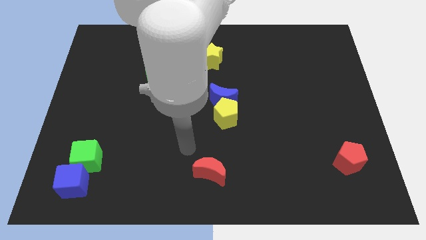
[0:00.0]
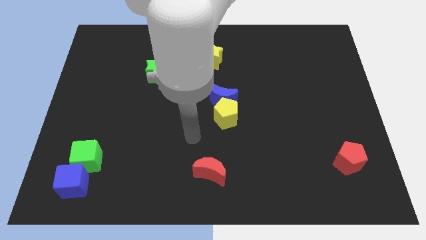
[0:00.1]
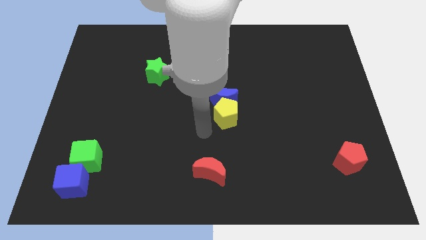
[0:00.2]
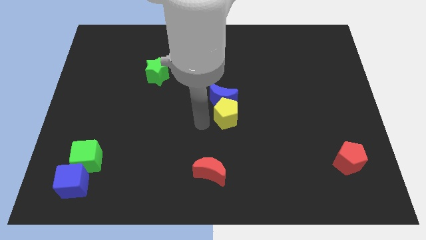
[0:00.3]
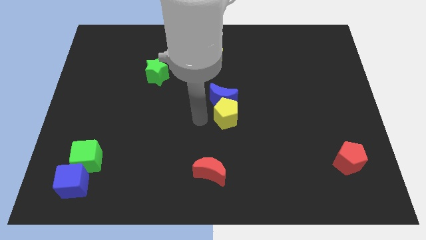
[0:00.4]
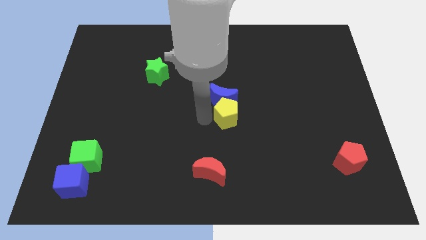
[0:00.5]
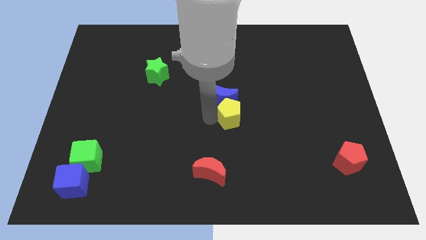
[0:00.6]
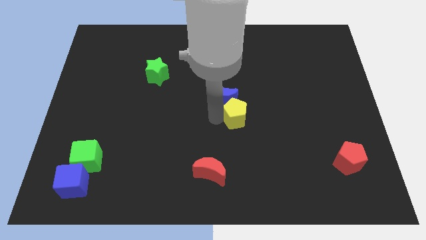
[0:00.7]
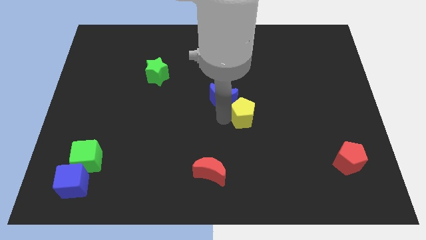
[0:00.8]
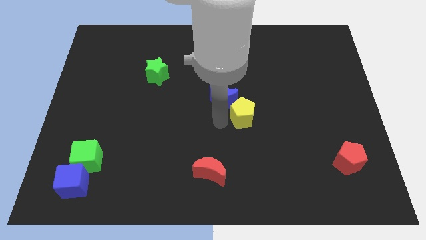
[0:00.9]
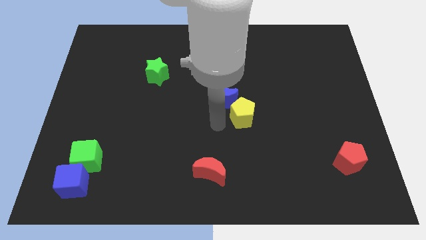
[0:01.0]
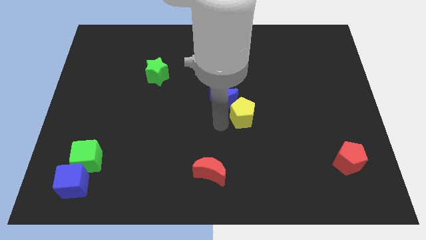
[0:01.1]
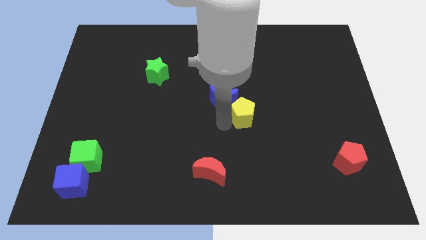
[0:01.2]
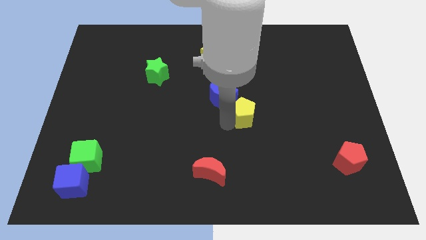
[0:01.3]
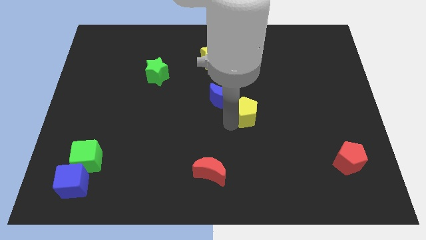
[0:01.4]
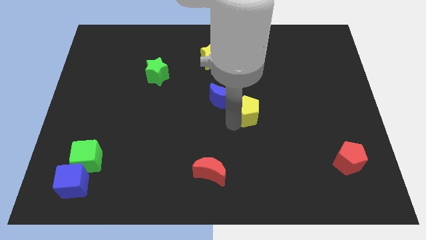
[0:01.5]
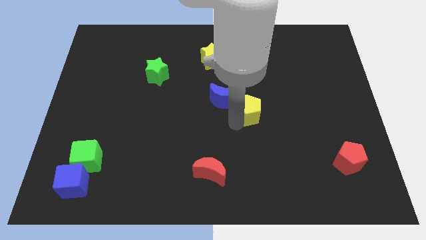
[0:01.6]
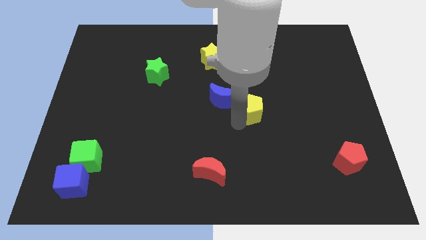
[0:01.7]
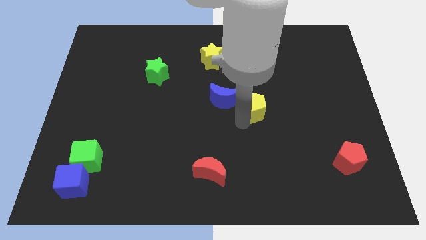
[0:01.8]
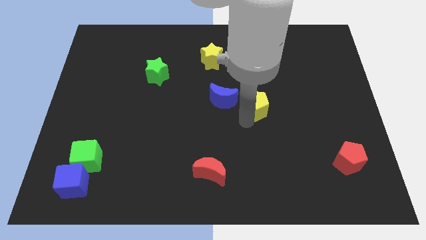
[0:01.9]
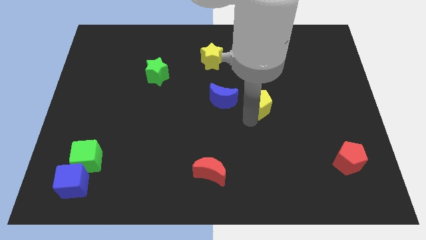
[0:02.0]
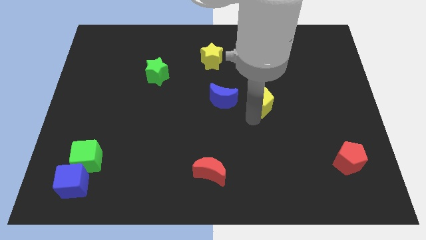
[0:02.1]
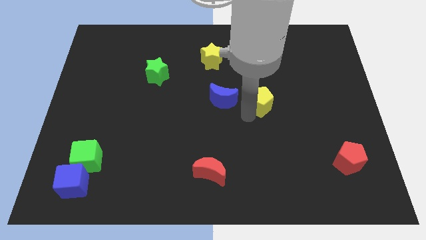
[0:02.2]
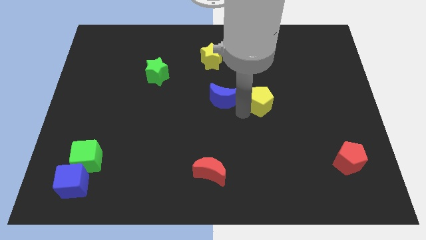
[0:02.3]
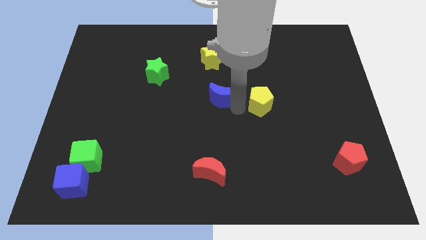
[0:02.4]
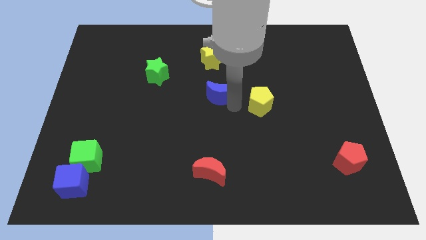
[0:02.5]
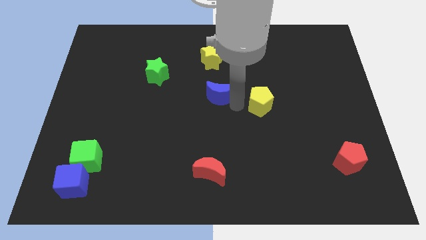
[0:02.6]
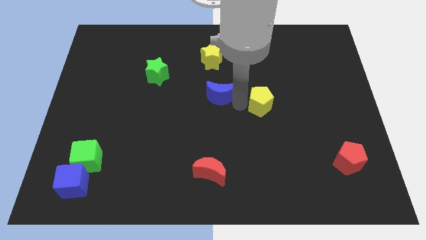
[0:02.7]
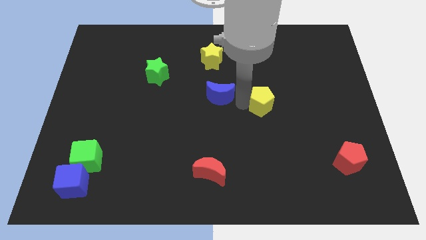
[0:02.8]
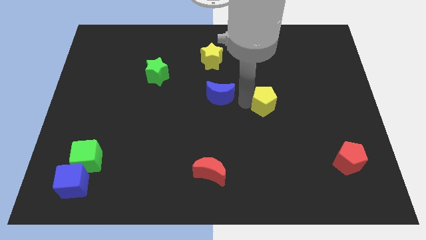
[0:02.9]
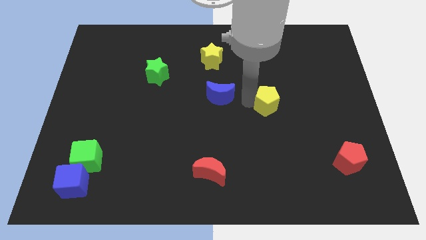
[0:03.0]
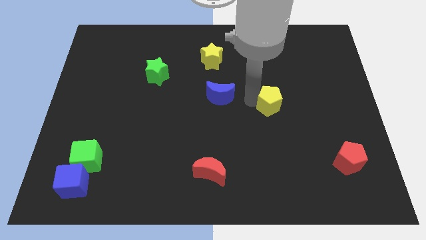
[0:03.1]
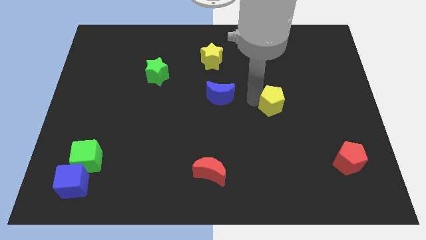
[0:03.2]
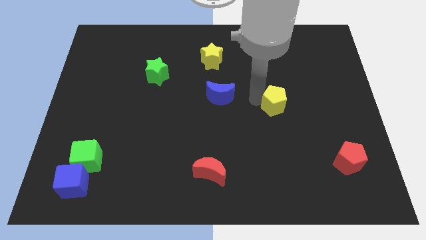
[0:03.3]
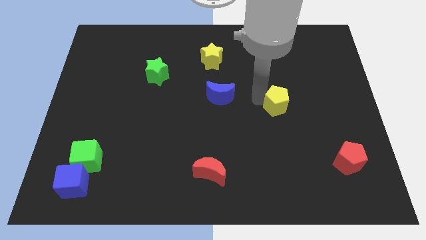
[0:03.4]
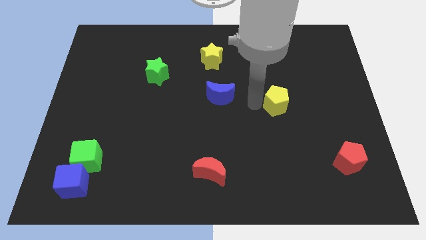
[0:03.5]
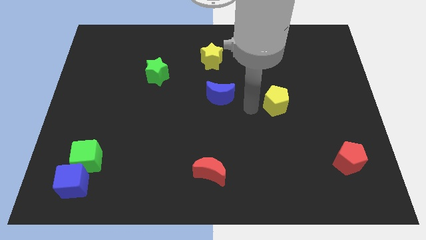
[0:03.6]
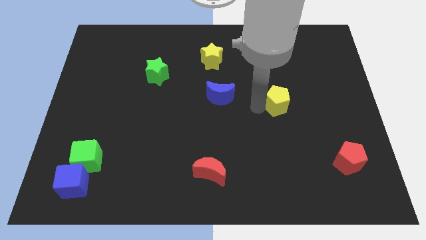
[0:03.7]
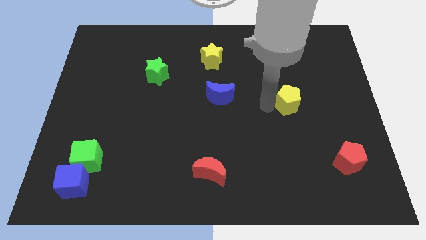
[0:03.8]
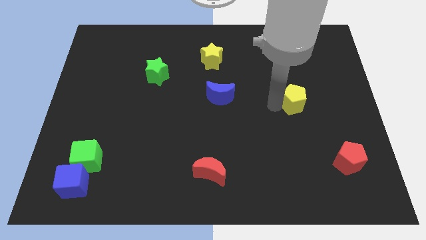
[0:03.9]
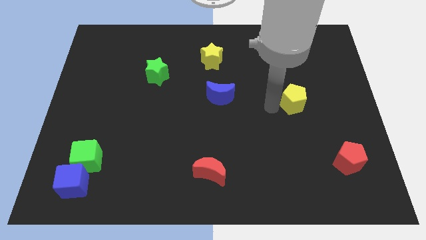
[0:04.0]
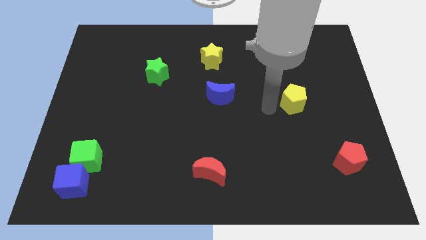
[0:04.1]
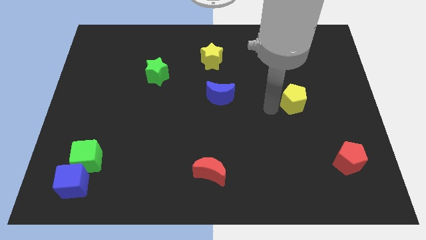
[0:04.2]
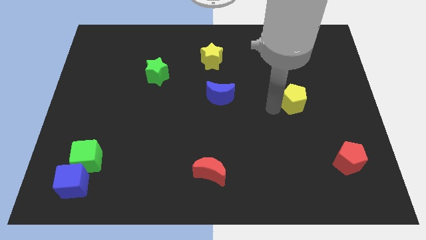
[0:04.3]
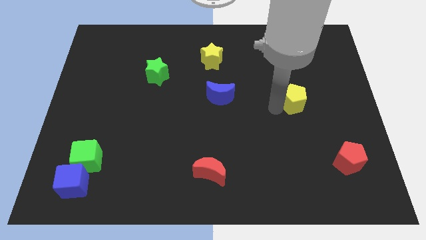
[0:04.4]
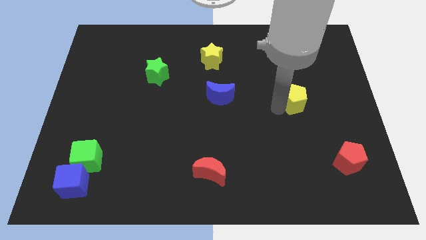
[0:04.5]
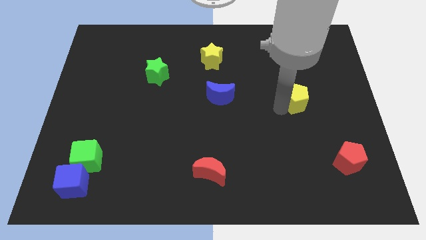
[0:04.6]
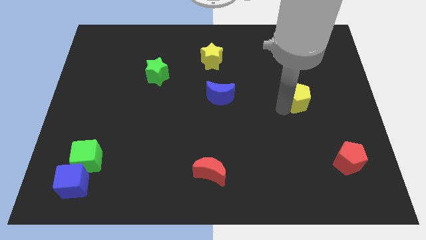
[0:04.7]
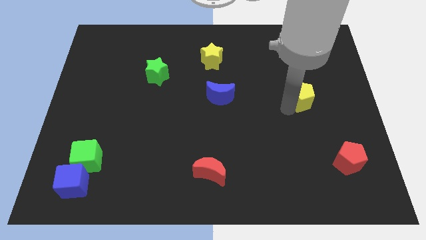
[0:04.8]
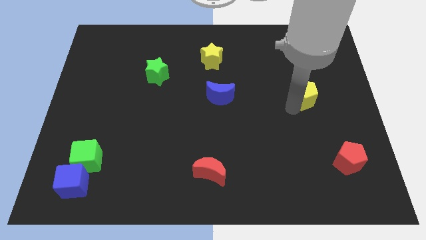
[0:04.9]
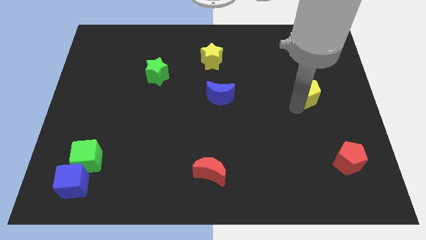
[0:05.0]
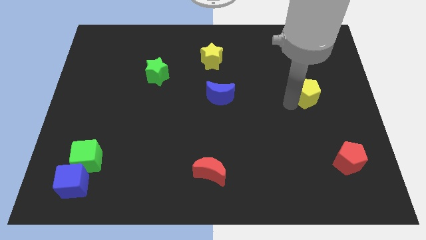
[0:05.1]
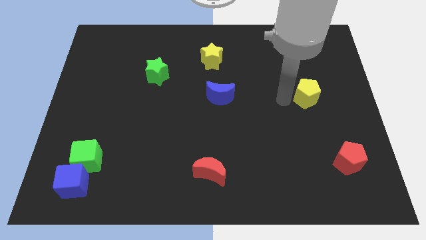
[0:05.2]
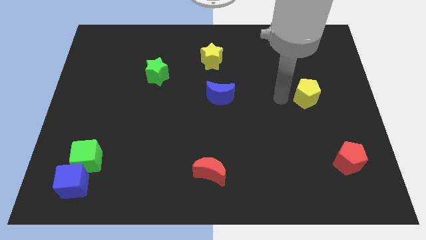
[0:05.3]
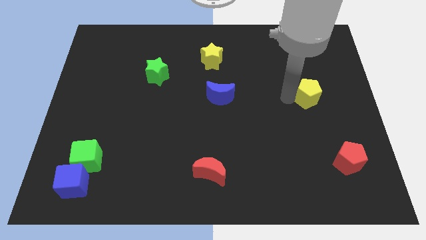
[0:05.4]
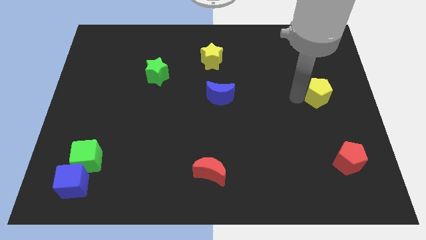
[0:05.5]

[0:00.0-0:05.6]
slide the yellow pentagon to the right side
